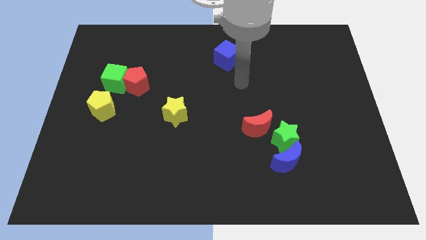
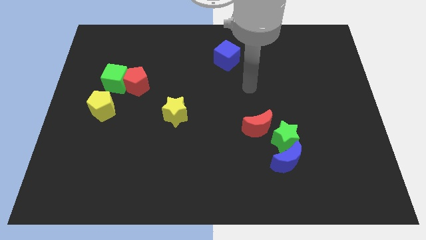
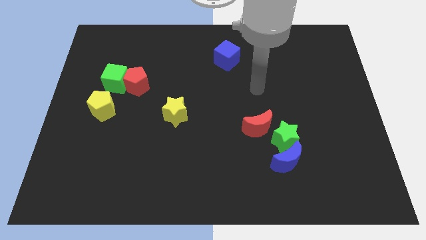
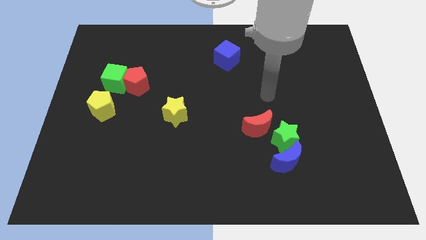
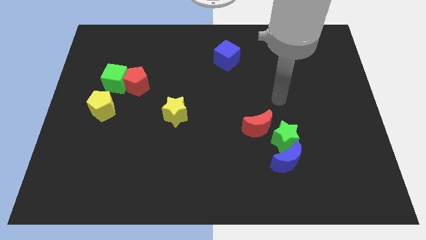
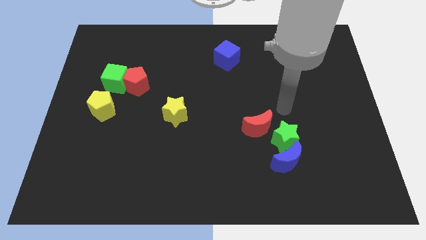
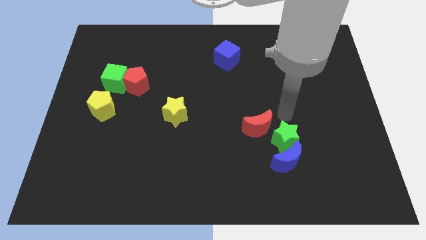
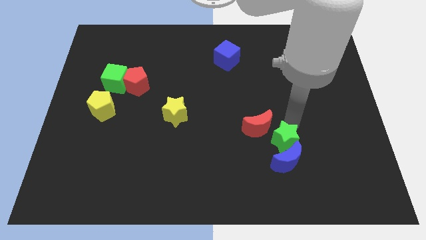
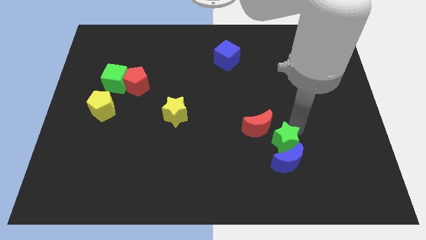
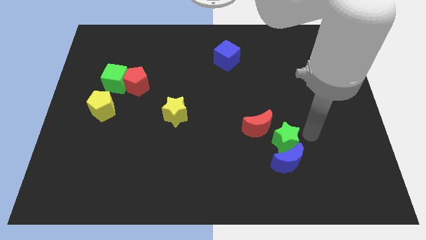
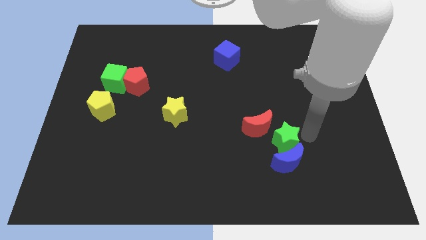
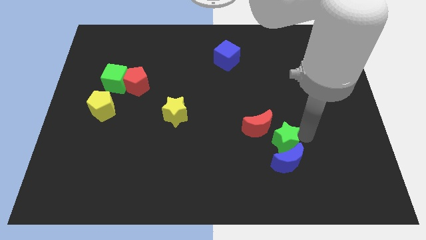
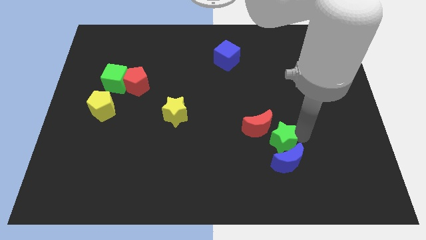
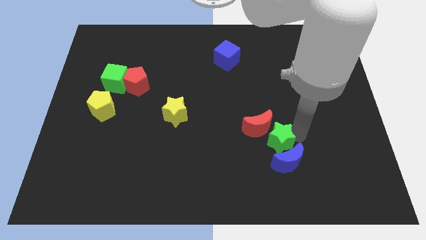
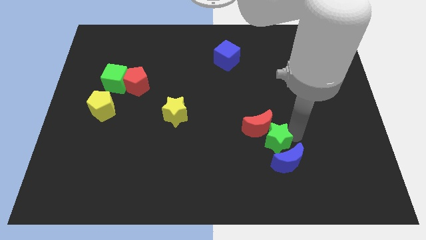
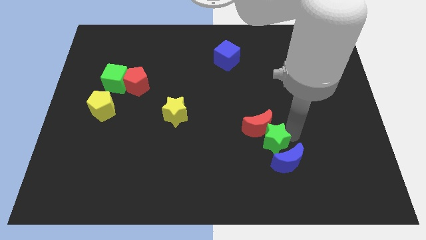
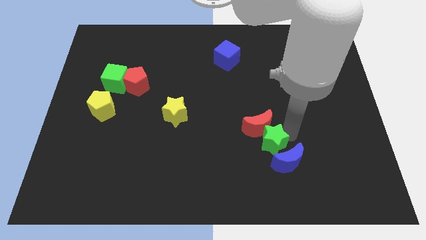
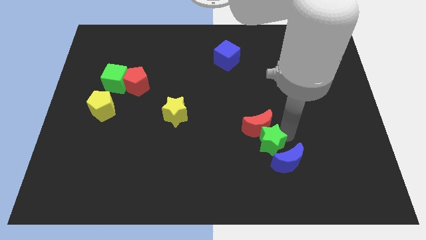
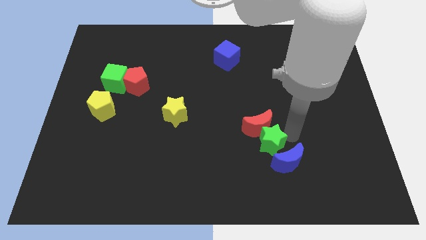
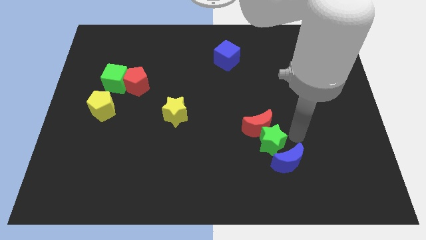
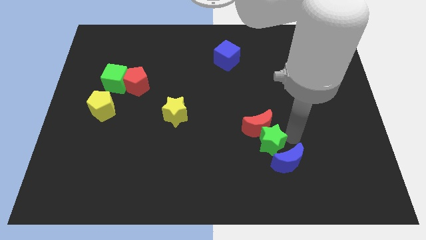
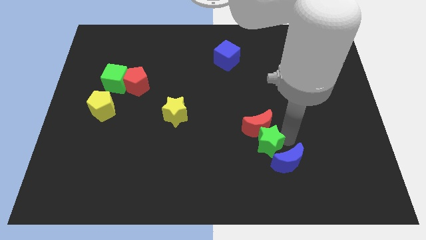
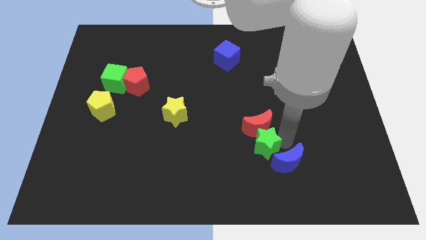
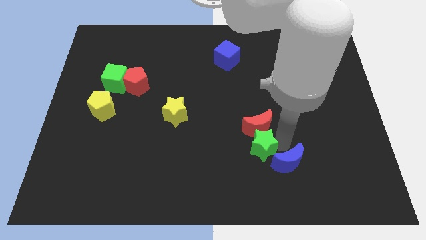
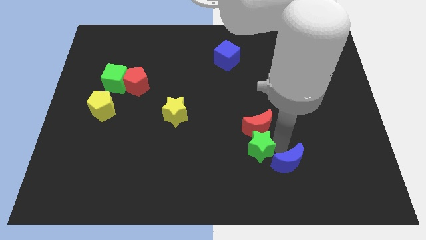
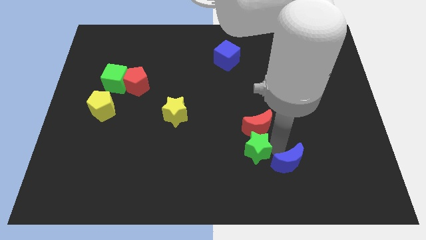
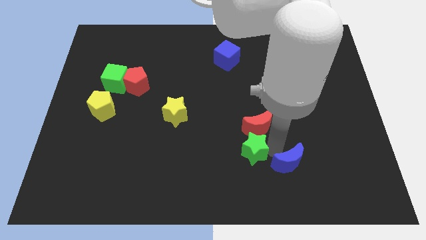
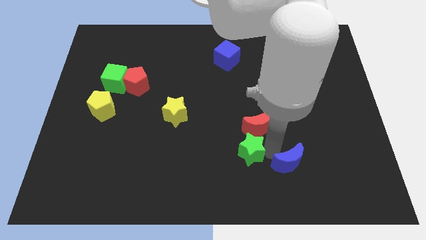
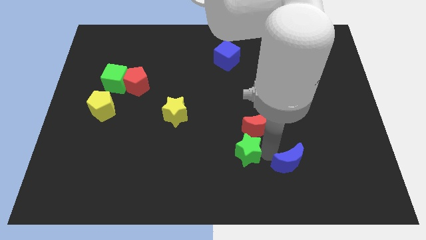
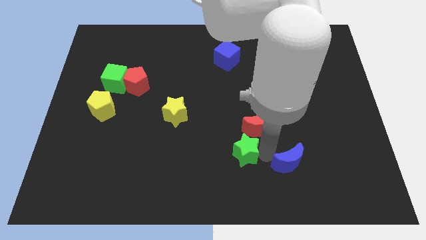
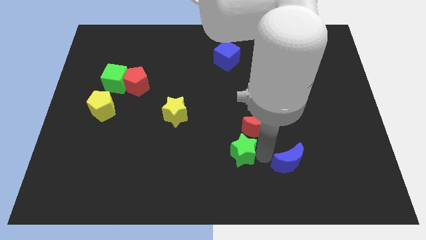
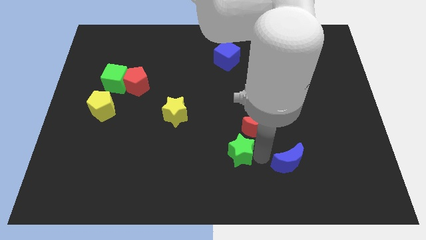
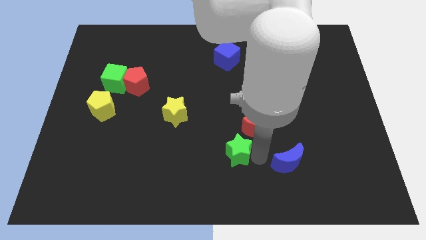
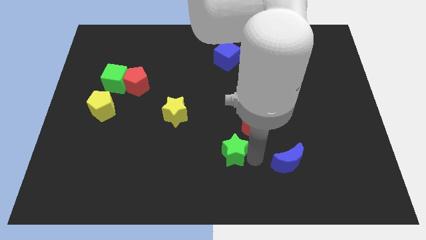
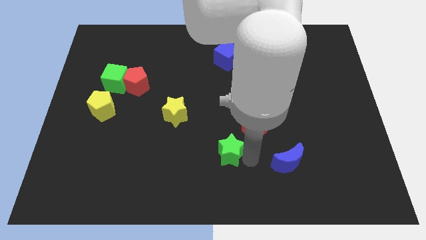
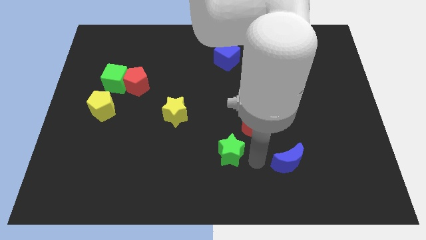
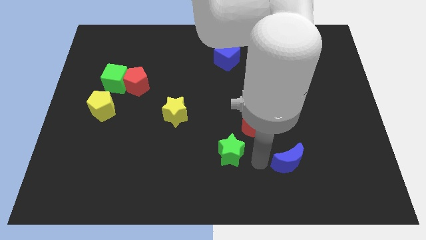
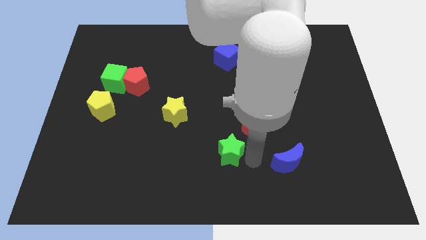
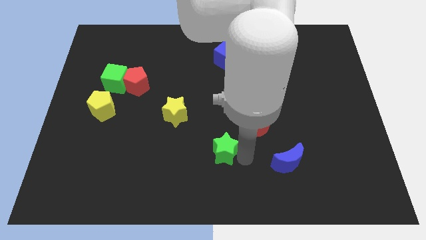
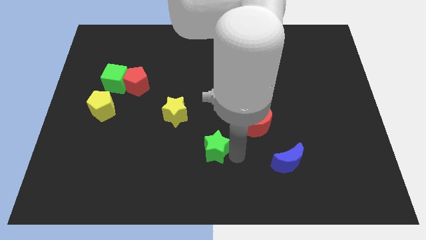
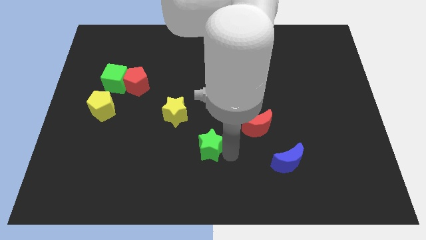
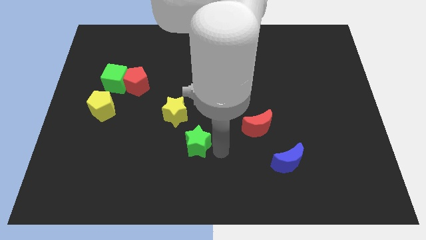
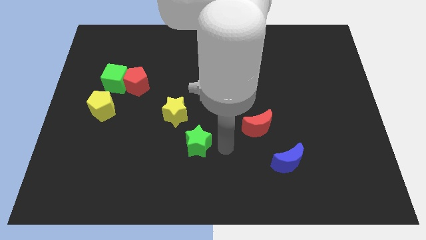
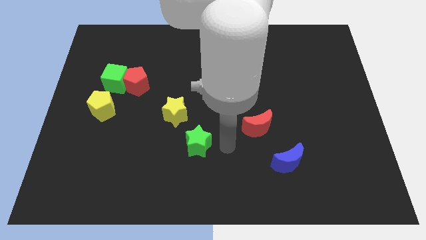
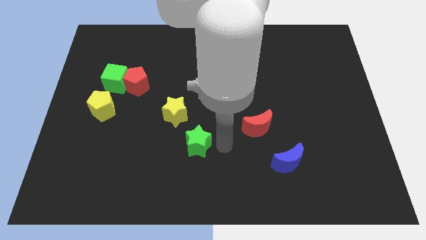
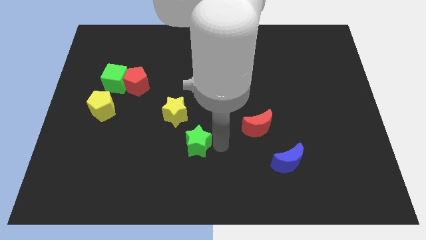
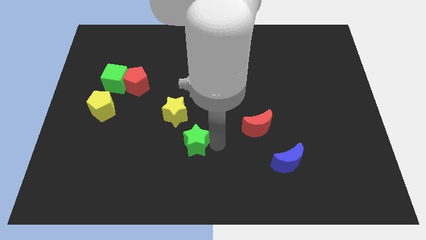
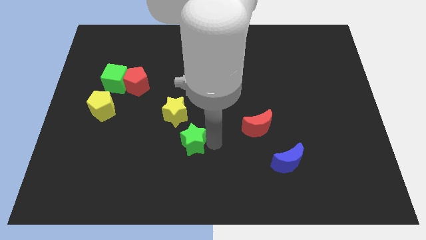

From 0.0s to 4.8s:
slide the green star left

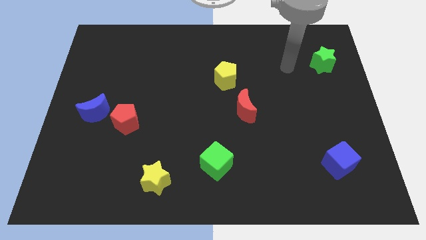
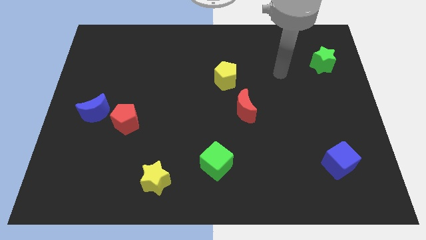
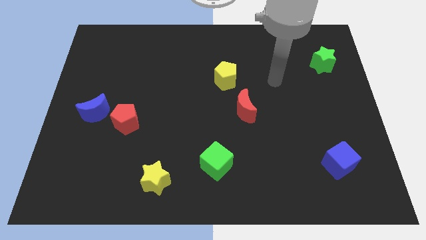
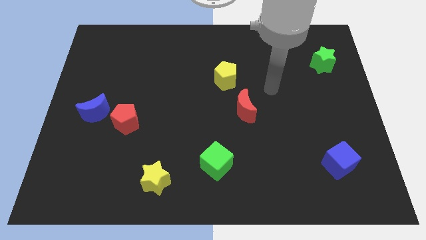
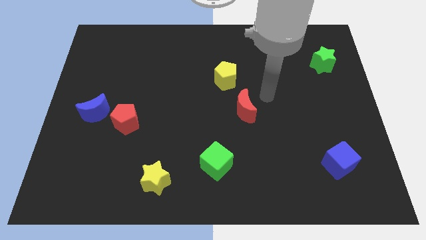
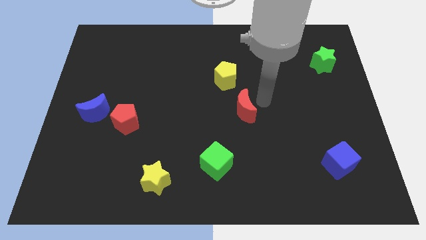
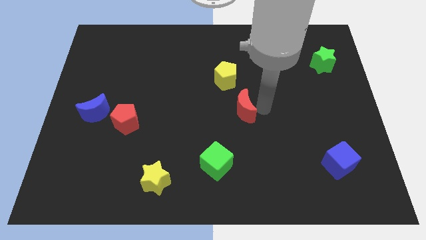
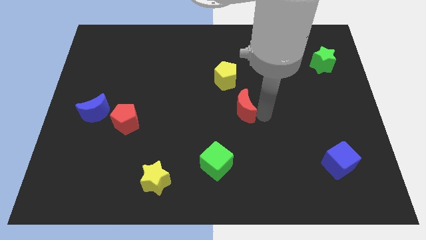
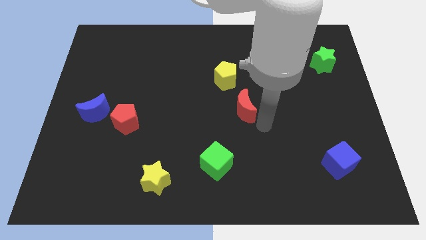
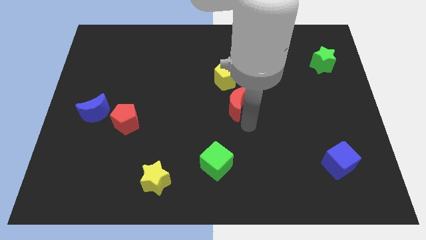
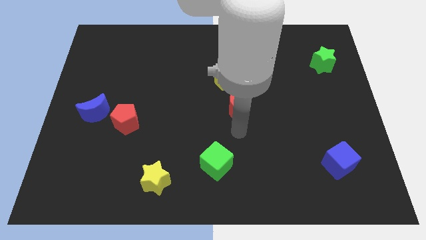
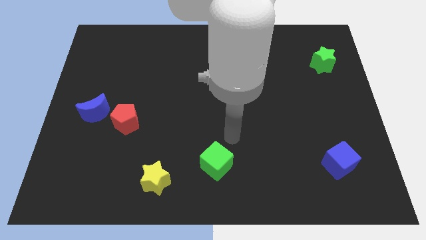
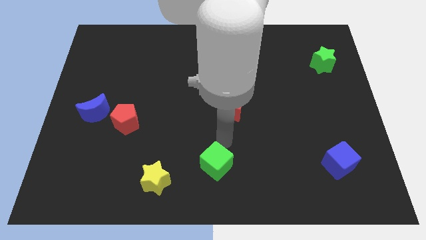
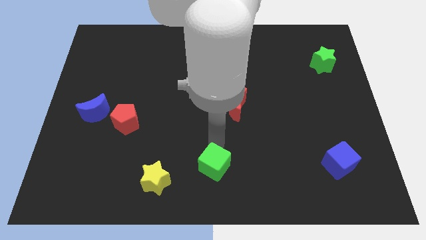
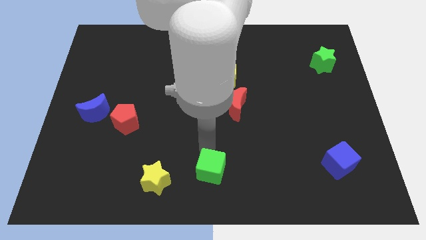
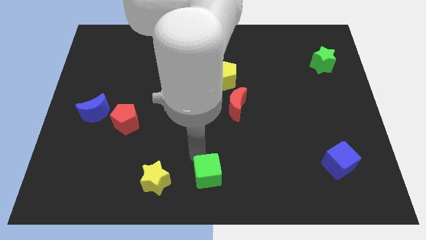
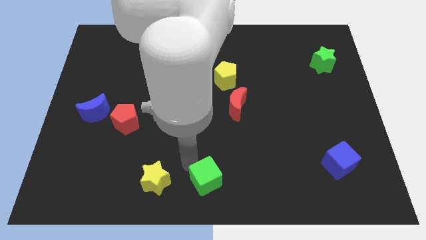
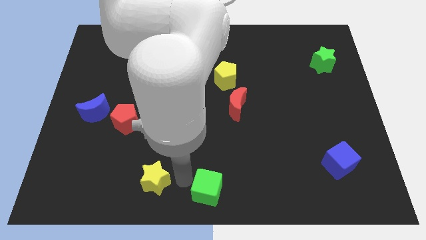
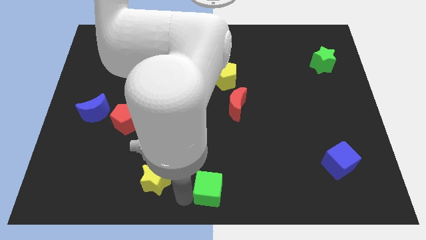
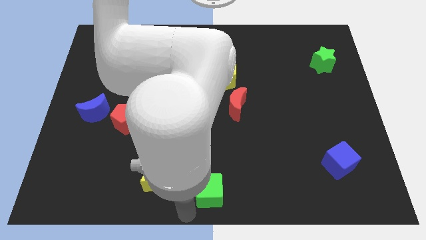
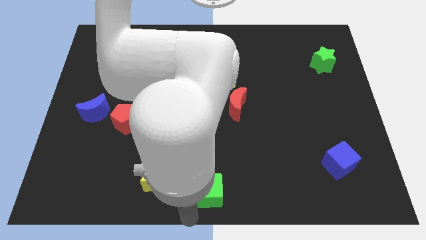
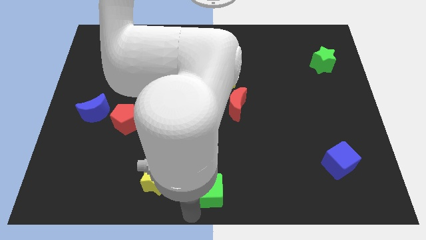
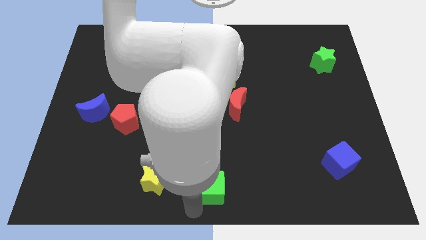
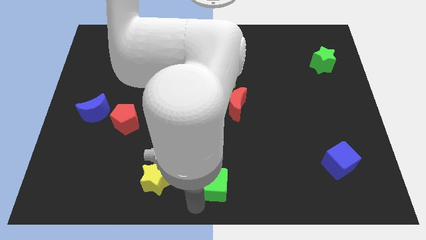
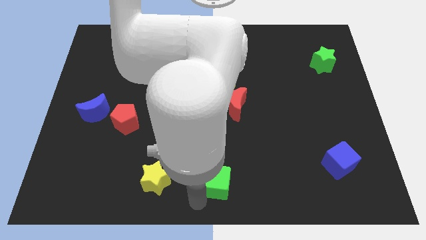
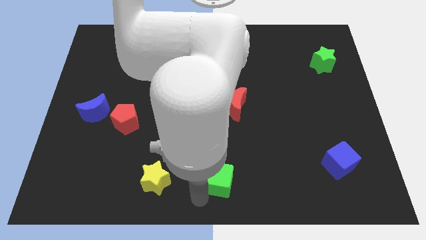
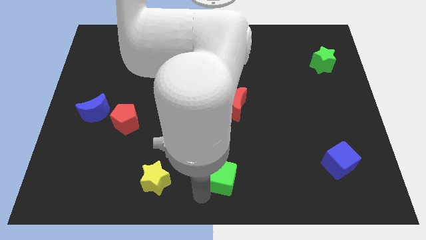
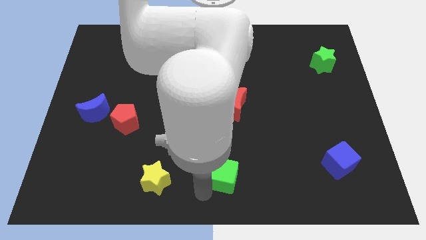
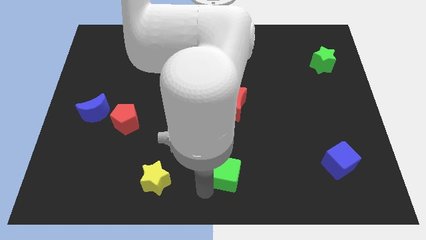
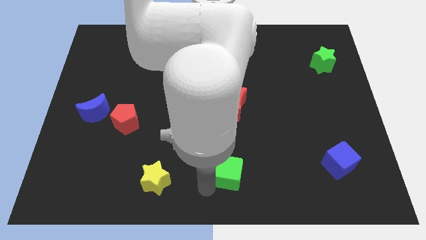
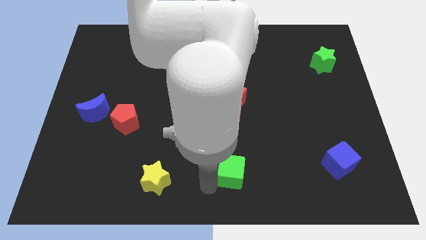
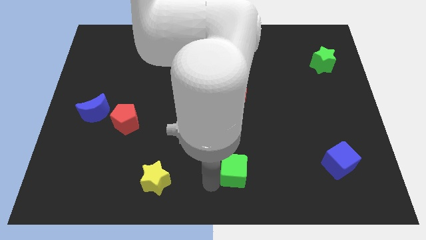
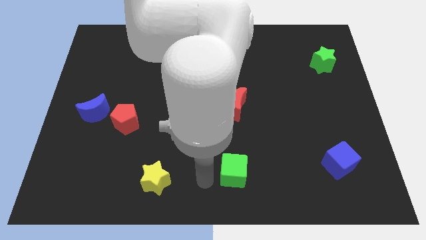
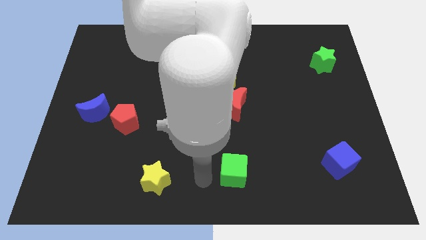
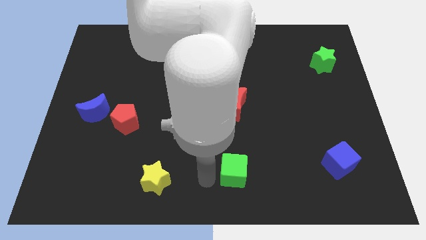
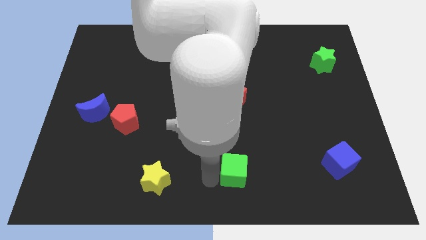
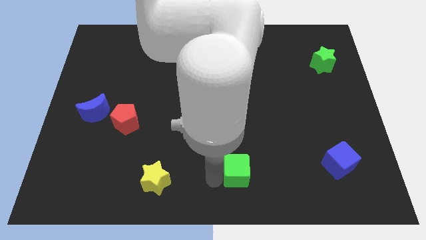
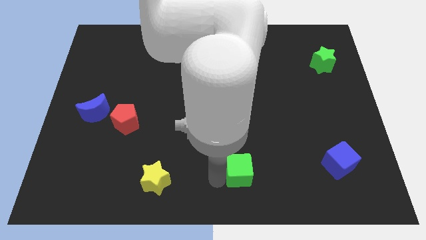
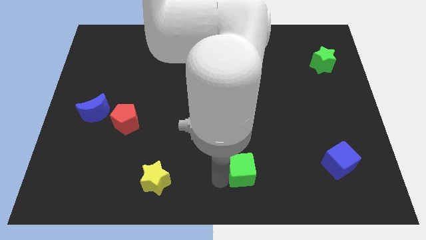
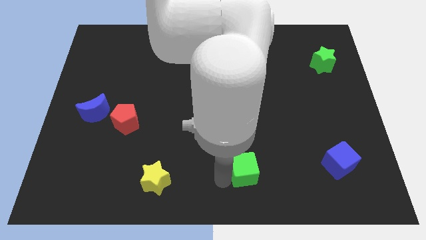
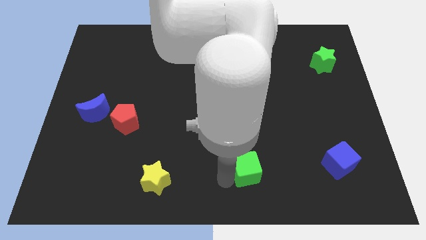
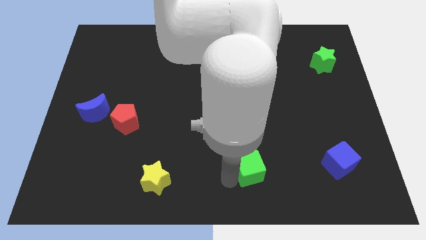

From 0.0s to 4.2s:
move the green cube to the right a little
